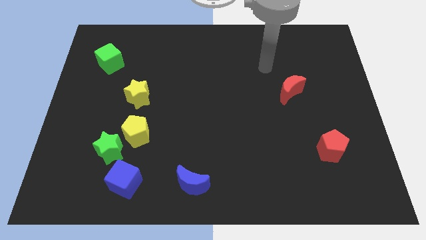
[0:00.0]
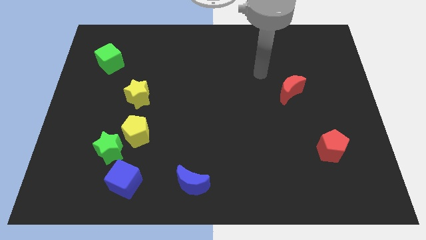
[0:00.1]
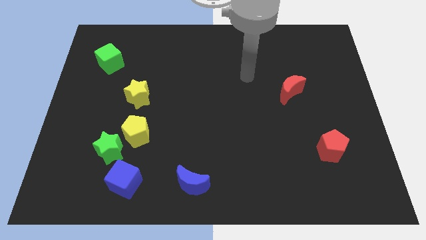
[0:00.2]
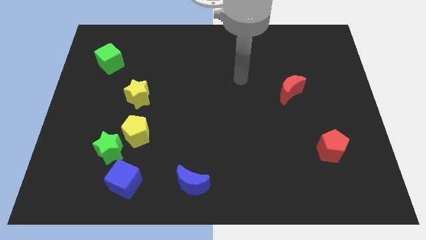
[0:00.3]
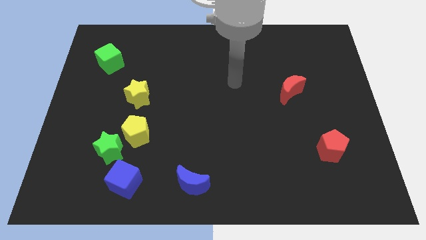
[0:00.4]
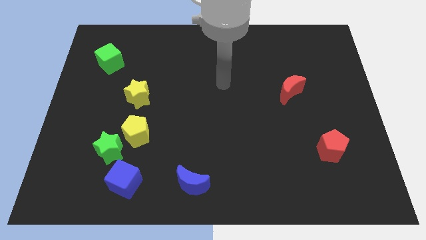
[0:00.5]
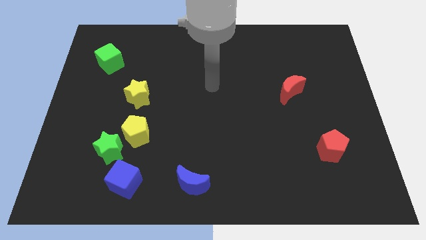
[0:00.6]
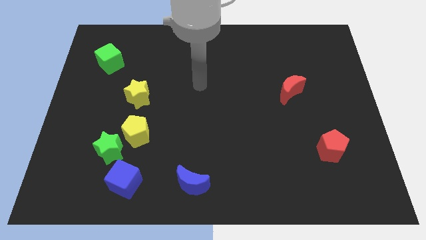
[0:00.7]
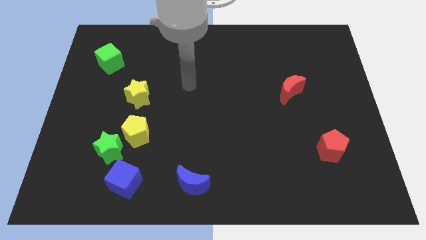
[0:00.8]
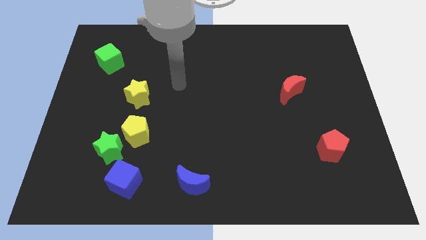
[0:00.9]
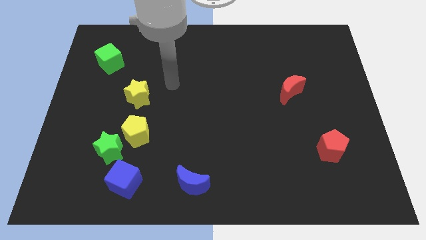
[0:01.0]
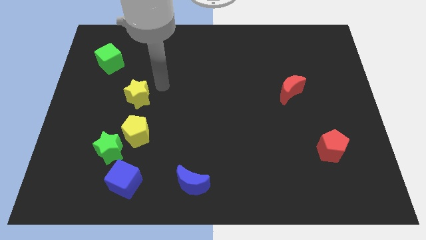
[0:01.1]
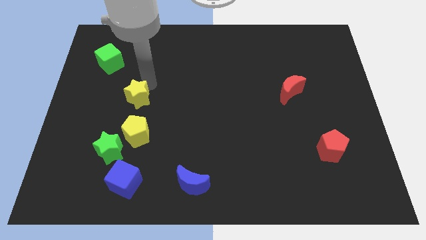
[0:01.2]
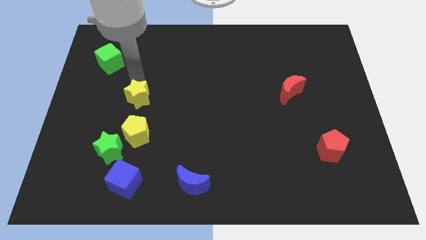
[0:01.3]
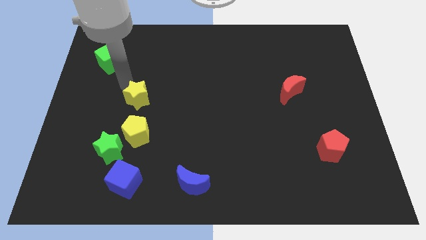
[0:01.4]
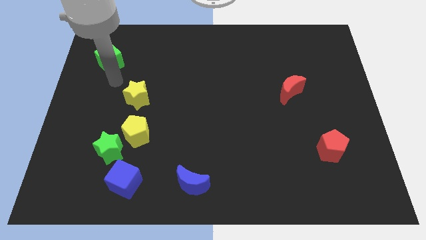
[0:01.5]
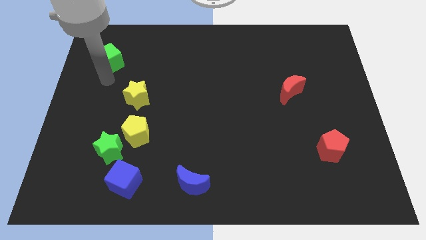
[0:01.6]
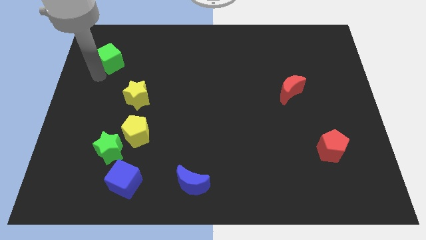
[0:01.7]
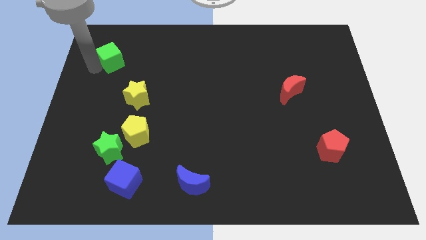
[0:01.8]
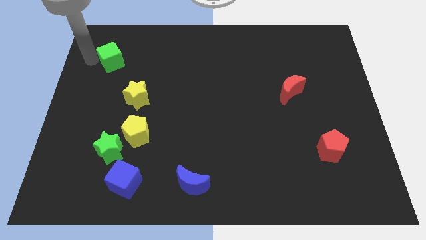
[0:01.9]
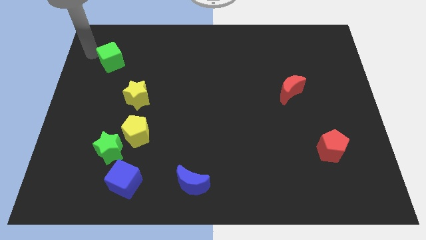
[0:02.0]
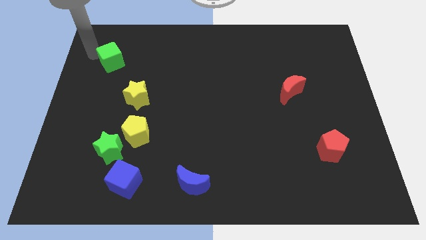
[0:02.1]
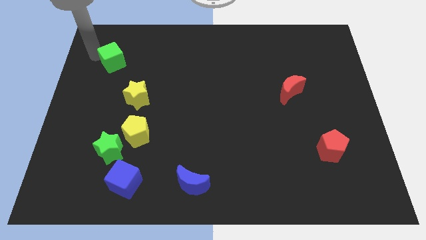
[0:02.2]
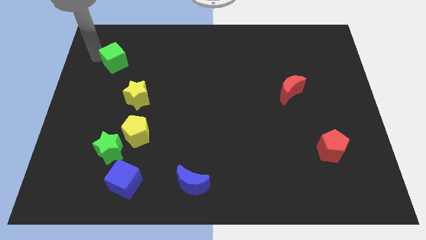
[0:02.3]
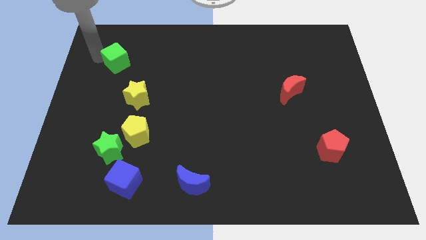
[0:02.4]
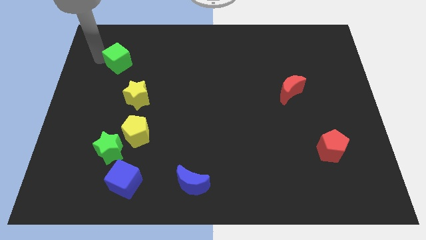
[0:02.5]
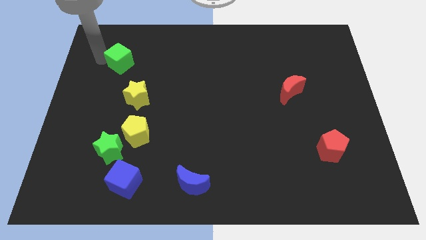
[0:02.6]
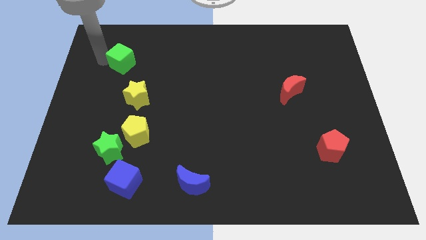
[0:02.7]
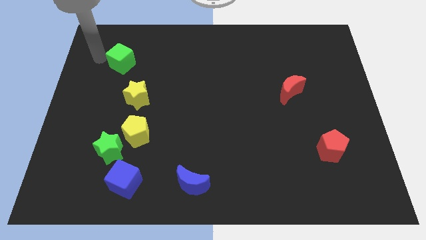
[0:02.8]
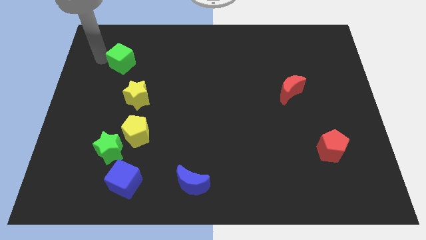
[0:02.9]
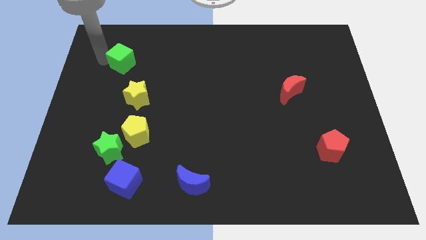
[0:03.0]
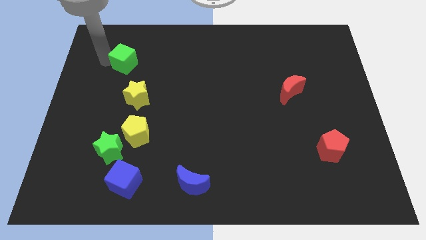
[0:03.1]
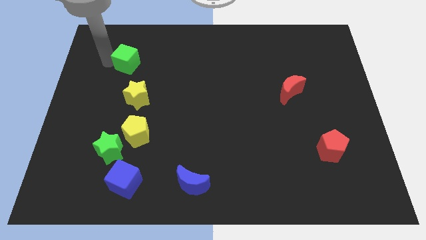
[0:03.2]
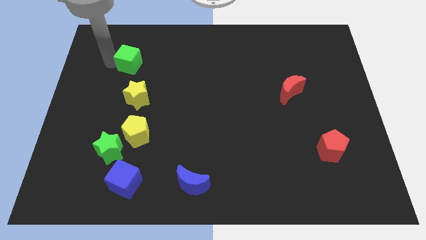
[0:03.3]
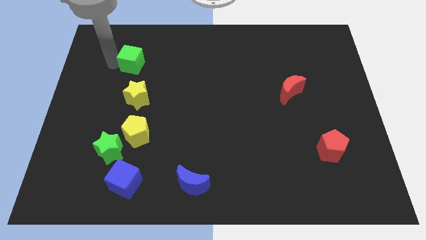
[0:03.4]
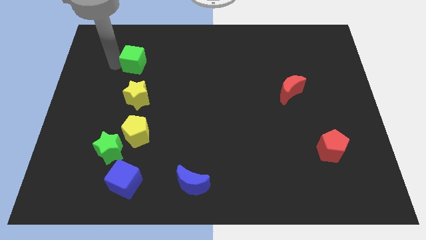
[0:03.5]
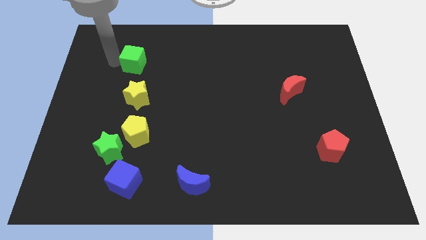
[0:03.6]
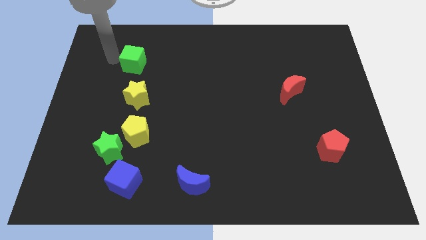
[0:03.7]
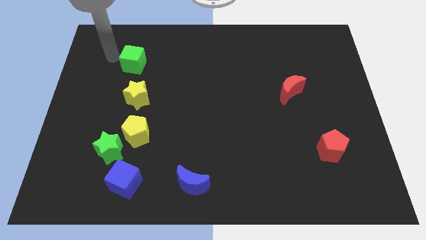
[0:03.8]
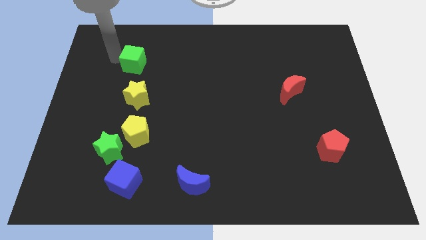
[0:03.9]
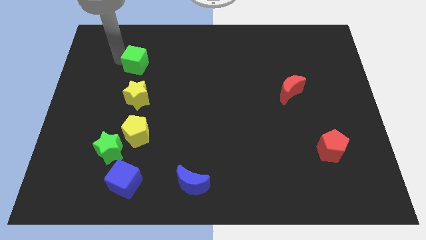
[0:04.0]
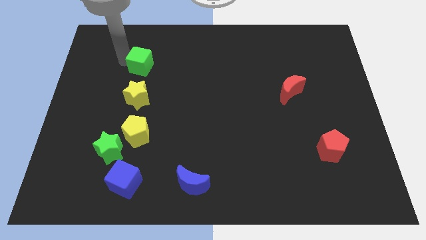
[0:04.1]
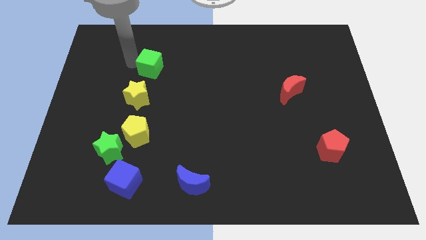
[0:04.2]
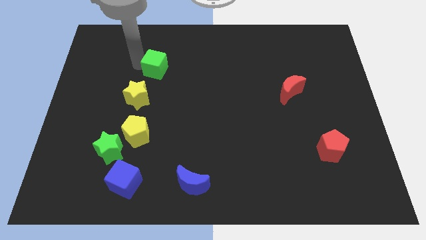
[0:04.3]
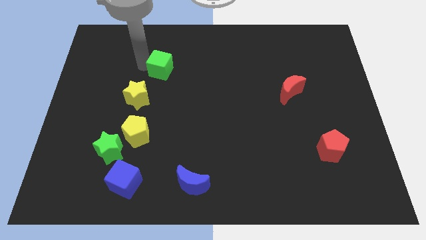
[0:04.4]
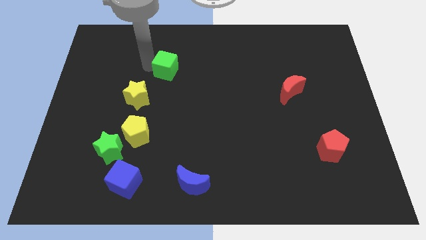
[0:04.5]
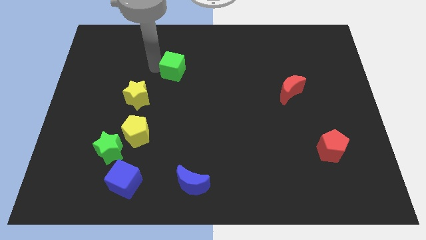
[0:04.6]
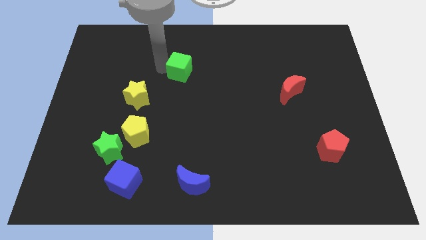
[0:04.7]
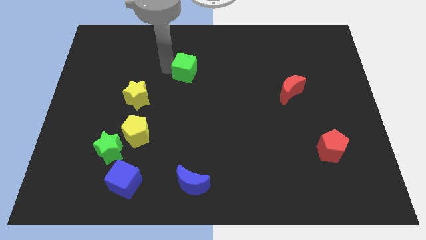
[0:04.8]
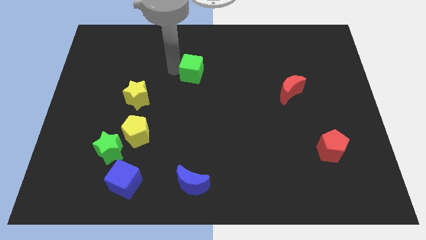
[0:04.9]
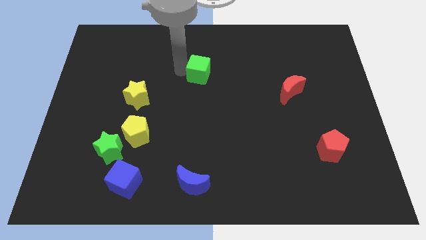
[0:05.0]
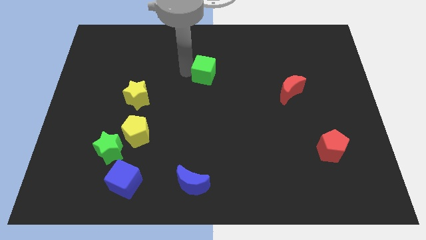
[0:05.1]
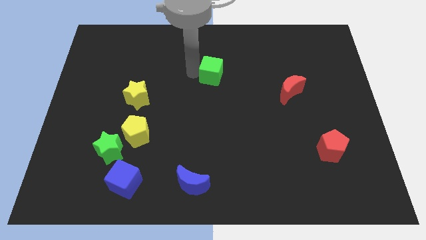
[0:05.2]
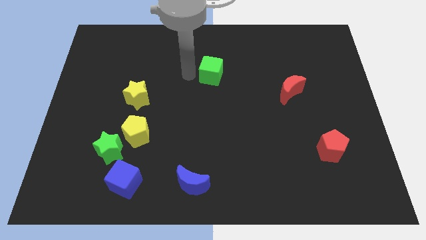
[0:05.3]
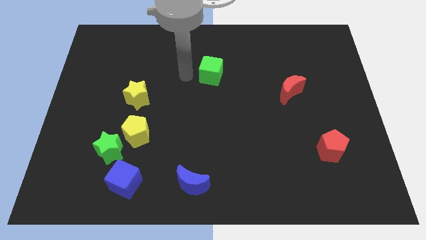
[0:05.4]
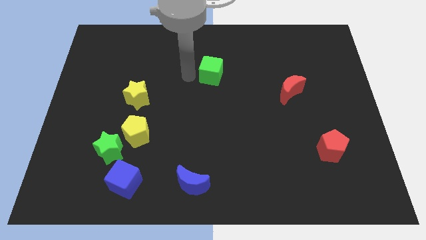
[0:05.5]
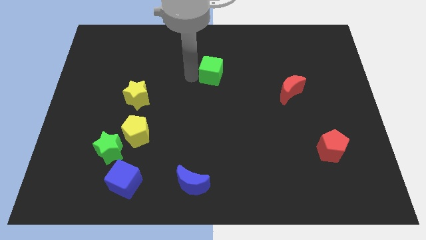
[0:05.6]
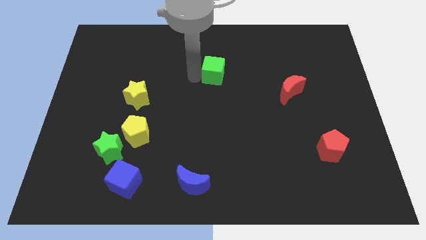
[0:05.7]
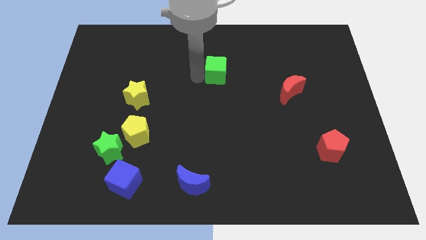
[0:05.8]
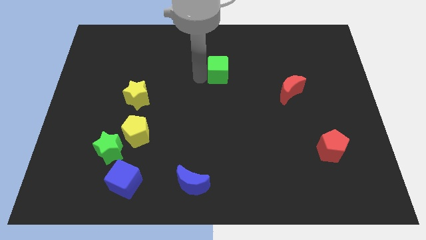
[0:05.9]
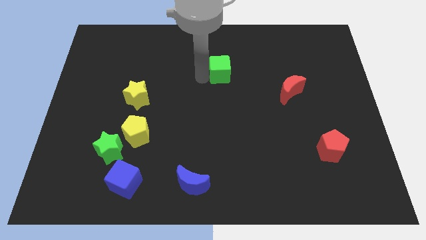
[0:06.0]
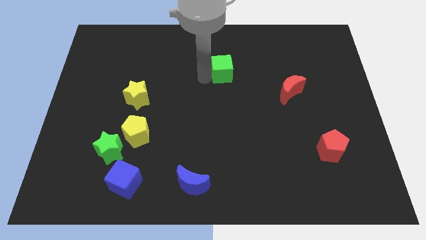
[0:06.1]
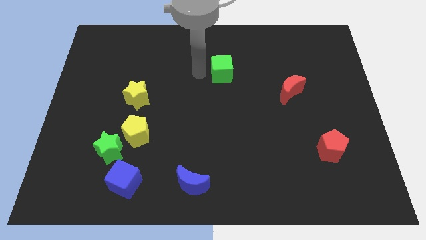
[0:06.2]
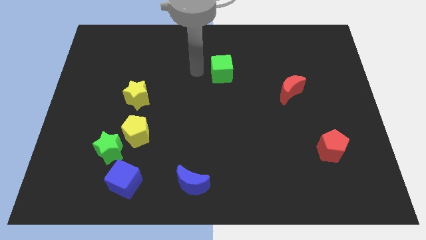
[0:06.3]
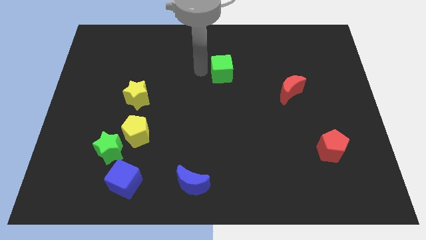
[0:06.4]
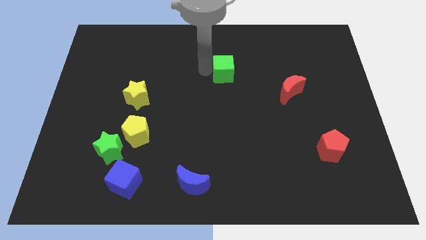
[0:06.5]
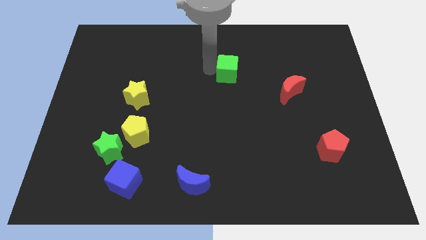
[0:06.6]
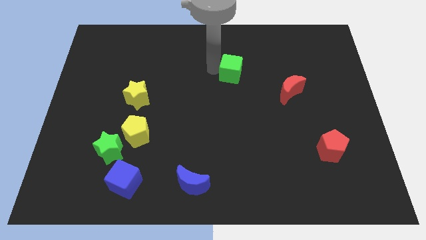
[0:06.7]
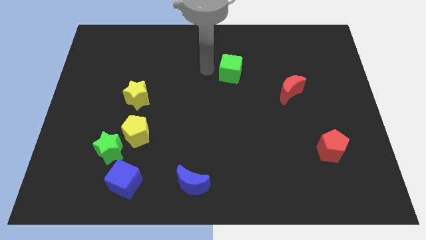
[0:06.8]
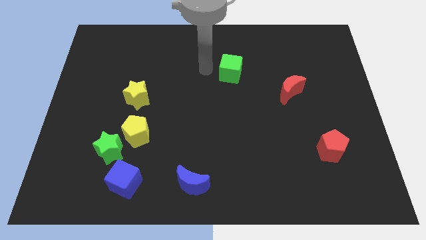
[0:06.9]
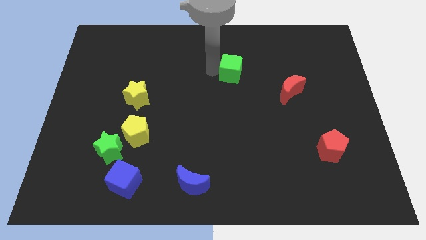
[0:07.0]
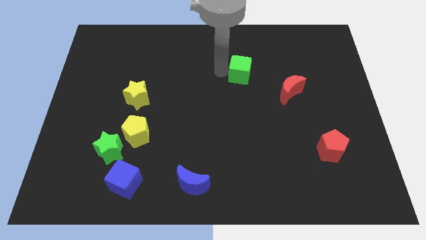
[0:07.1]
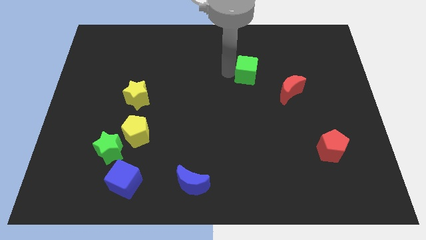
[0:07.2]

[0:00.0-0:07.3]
push the green cube to the top left of the red moon
